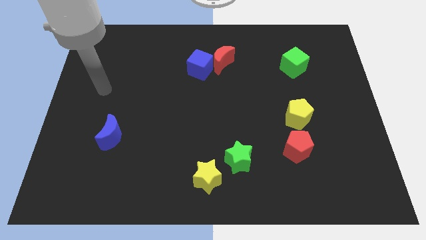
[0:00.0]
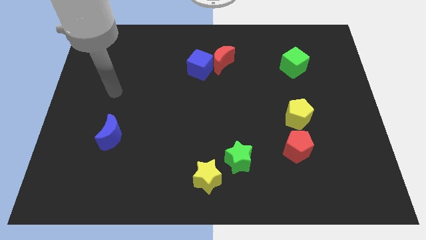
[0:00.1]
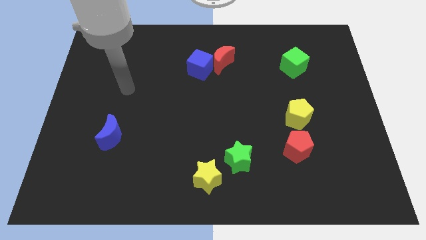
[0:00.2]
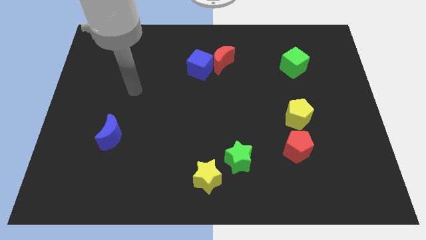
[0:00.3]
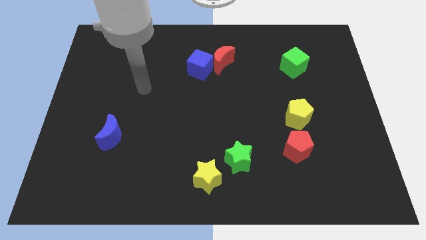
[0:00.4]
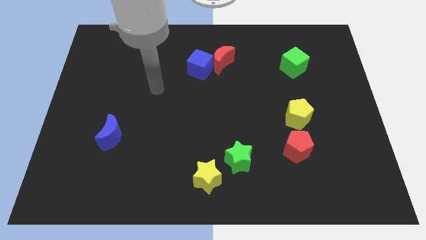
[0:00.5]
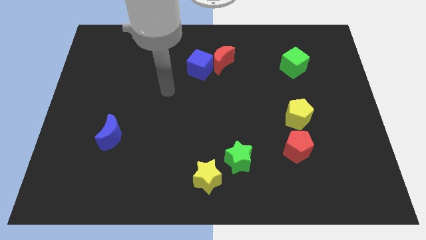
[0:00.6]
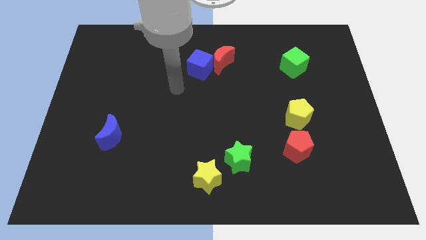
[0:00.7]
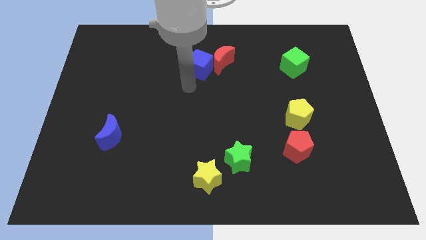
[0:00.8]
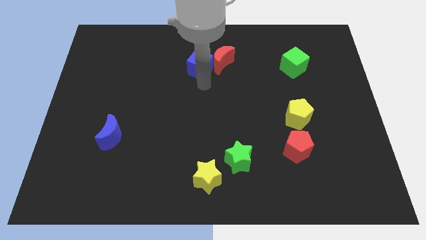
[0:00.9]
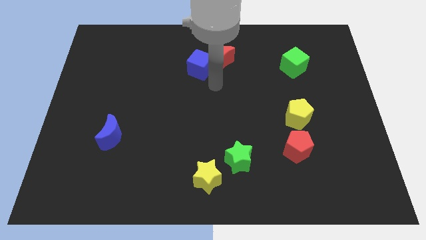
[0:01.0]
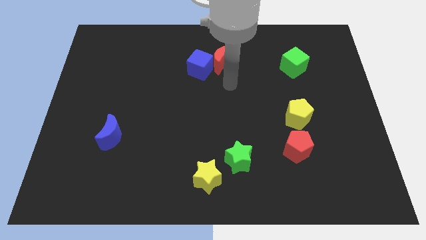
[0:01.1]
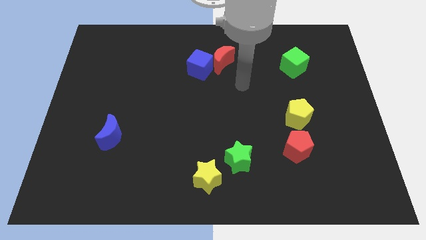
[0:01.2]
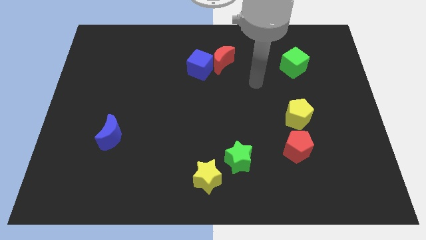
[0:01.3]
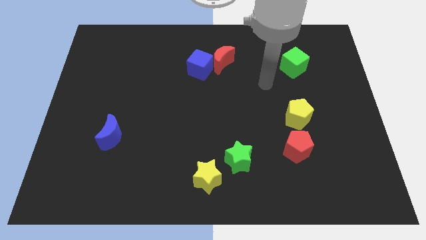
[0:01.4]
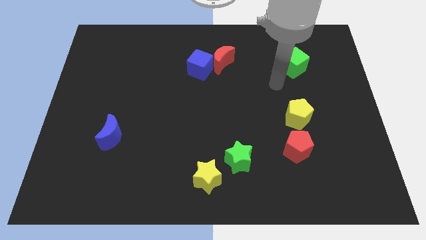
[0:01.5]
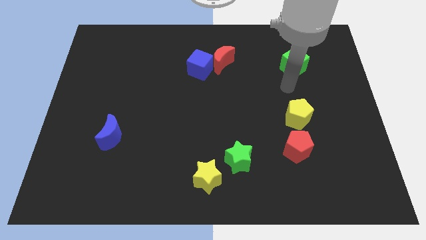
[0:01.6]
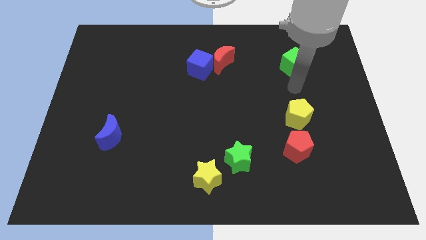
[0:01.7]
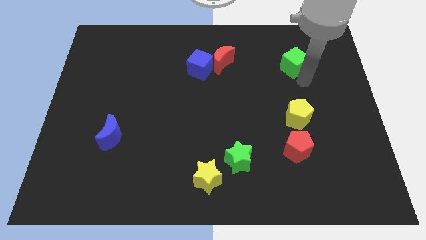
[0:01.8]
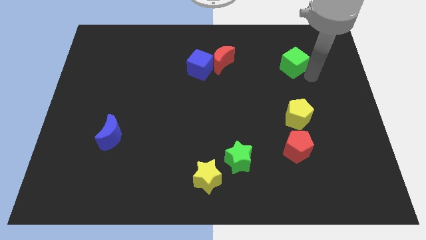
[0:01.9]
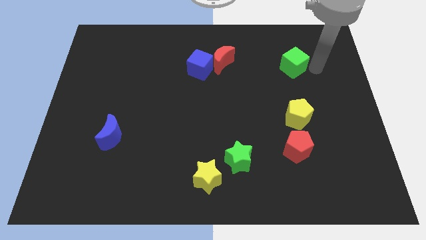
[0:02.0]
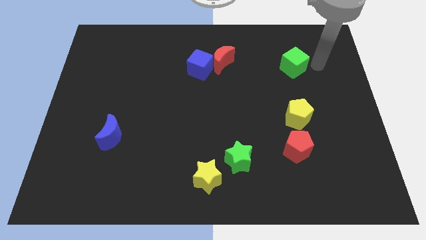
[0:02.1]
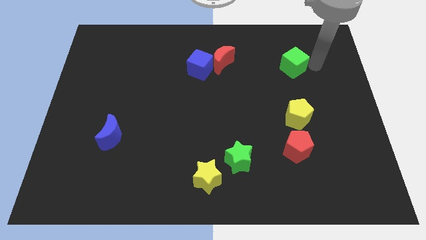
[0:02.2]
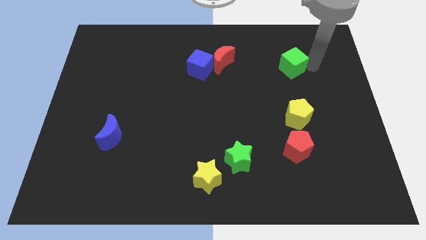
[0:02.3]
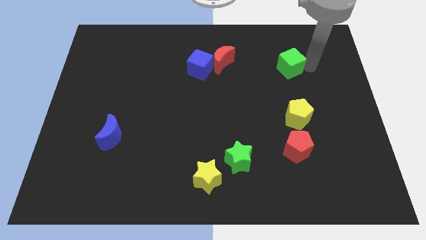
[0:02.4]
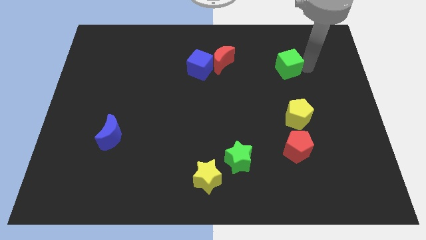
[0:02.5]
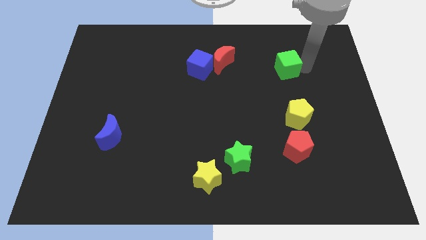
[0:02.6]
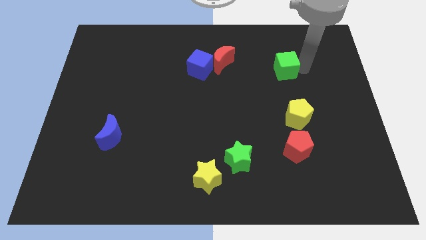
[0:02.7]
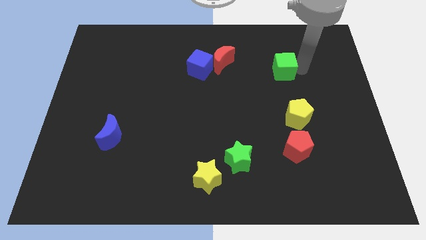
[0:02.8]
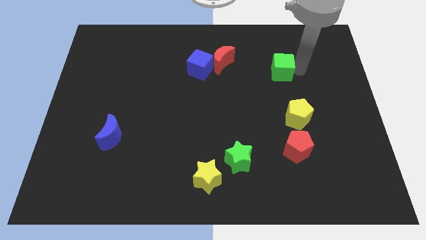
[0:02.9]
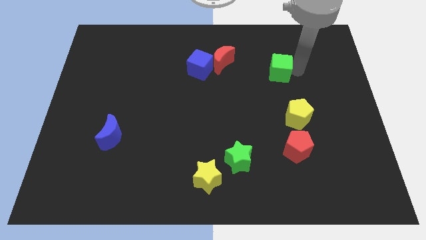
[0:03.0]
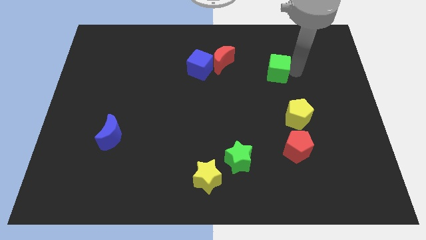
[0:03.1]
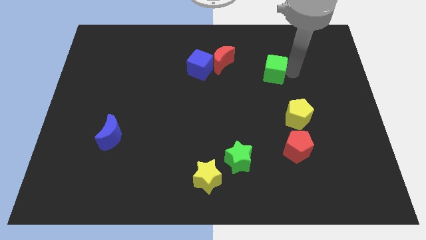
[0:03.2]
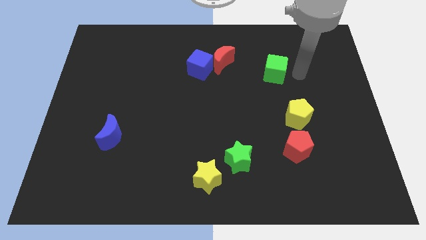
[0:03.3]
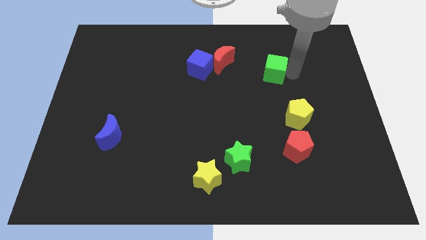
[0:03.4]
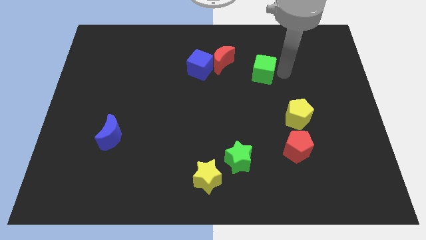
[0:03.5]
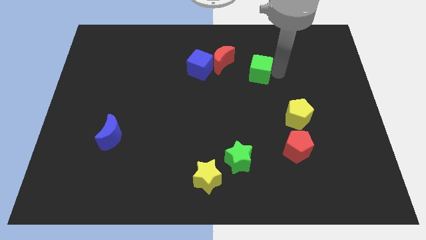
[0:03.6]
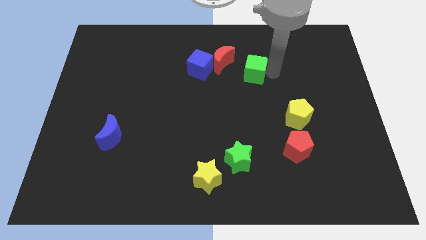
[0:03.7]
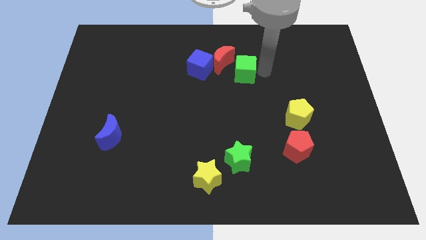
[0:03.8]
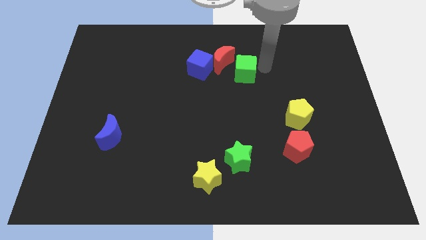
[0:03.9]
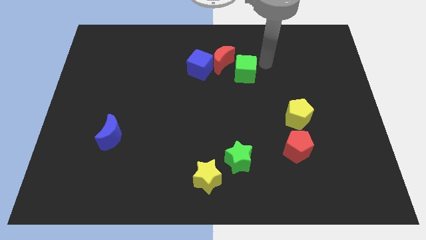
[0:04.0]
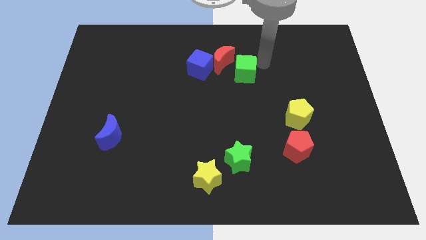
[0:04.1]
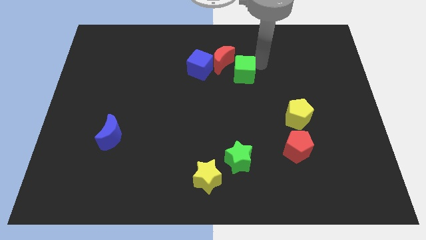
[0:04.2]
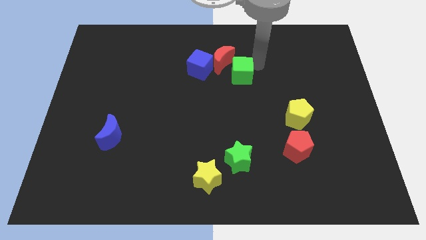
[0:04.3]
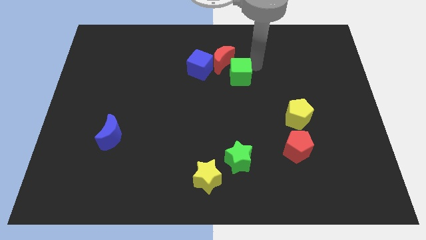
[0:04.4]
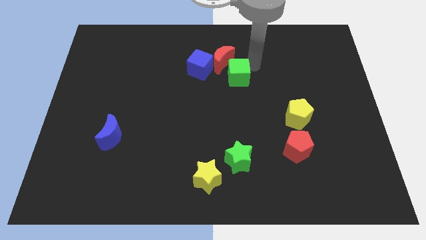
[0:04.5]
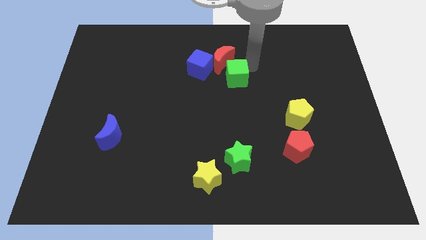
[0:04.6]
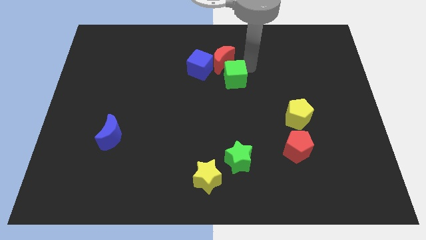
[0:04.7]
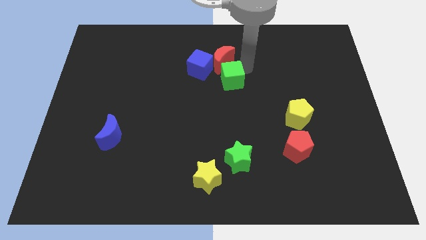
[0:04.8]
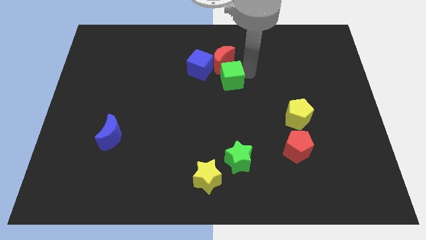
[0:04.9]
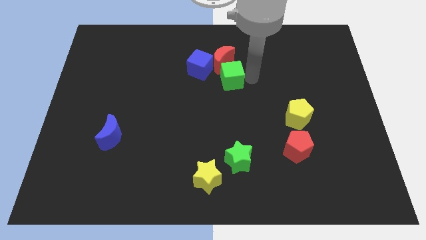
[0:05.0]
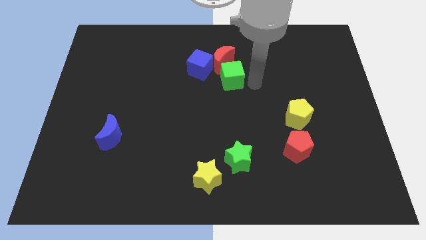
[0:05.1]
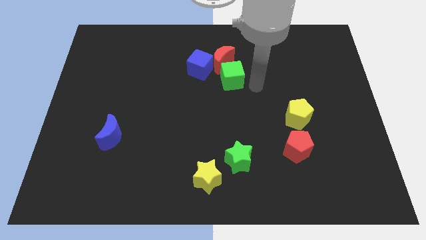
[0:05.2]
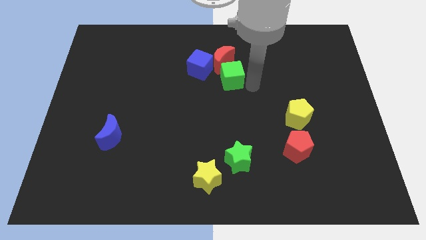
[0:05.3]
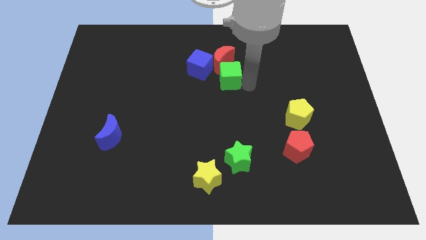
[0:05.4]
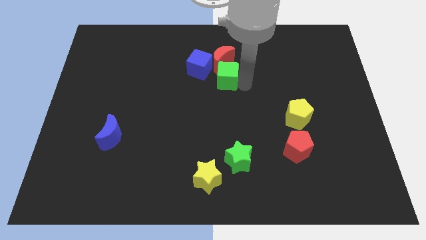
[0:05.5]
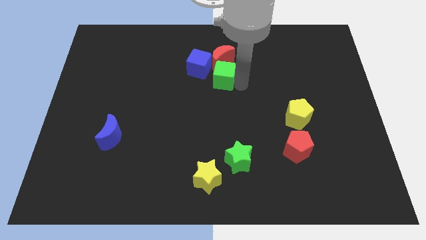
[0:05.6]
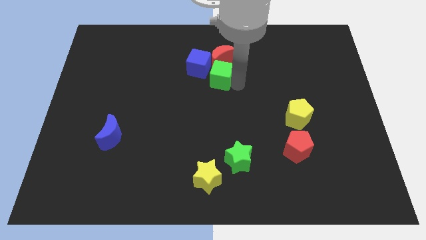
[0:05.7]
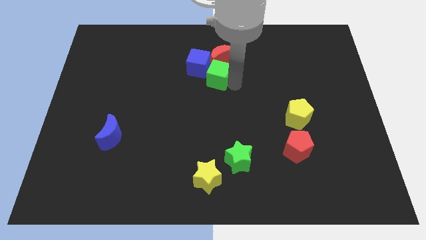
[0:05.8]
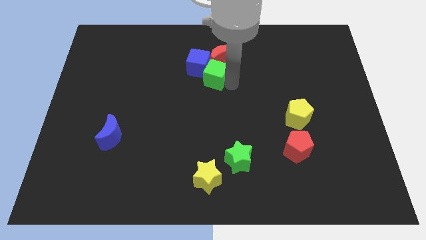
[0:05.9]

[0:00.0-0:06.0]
push the green cube next to the blue cube

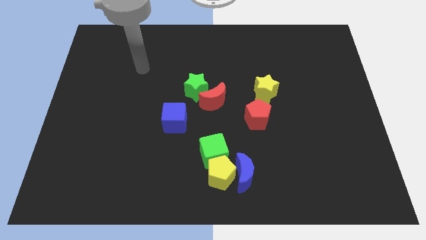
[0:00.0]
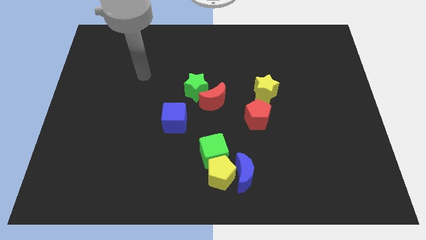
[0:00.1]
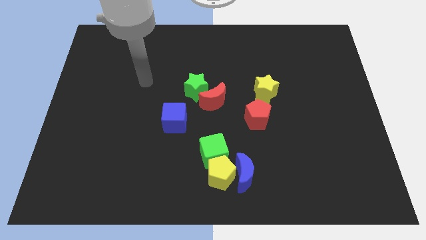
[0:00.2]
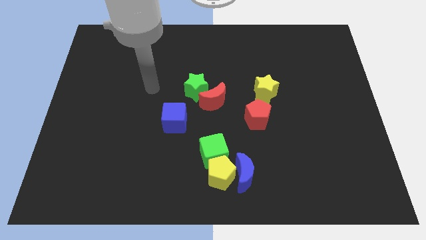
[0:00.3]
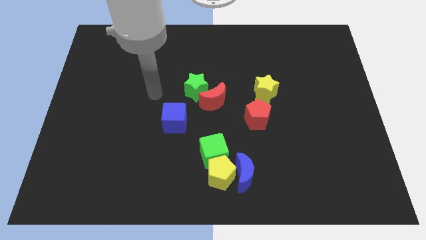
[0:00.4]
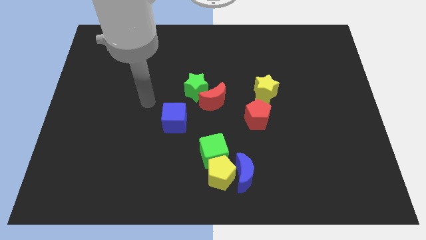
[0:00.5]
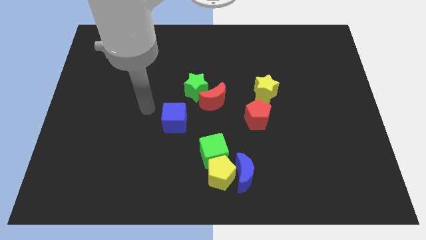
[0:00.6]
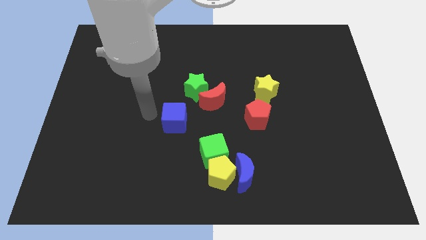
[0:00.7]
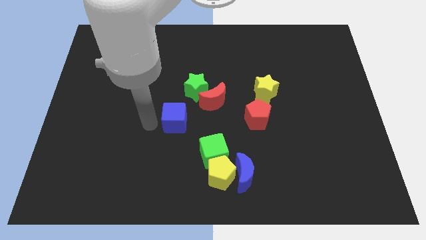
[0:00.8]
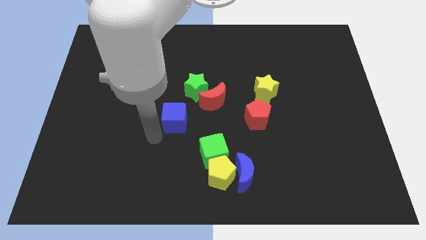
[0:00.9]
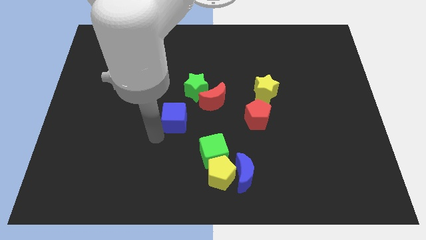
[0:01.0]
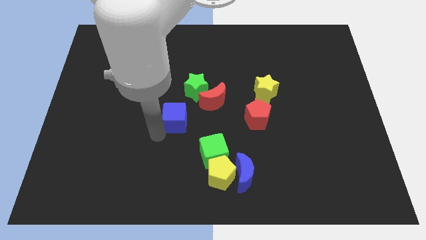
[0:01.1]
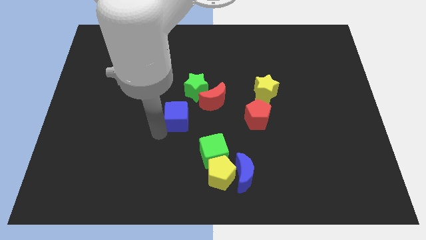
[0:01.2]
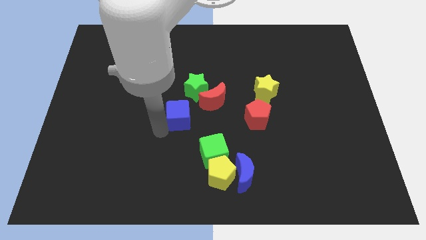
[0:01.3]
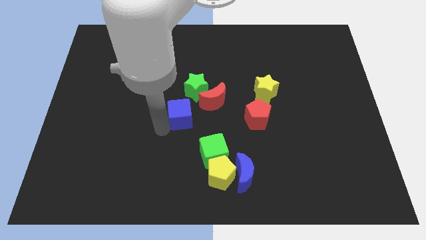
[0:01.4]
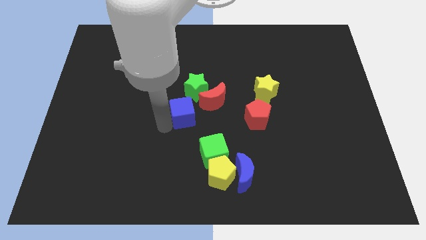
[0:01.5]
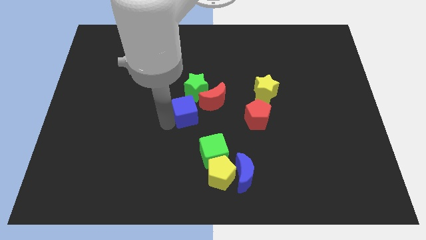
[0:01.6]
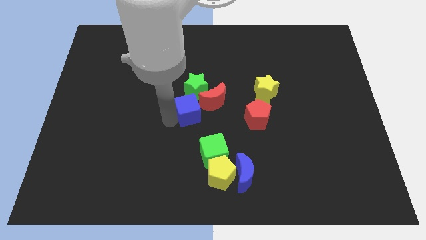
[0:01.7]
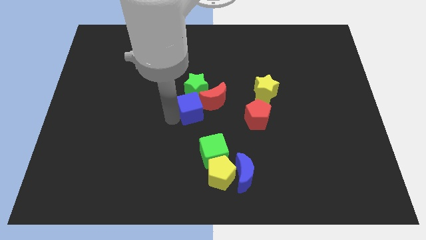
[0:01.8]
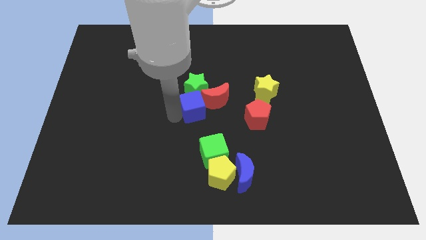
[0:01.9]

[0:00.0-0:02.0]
put the blue cube to the green star
